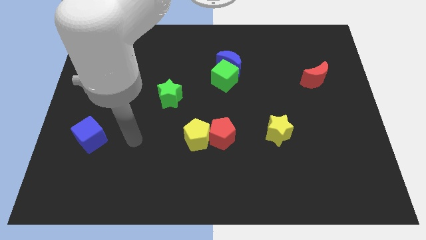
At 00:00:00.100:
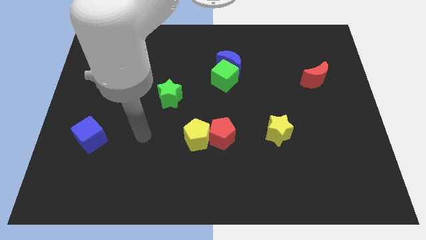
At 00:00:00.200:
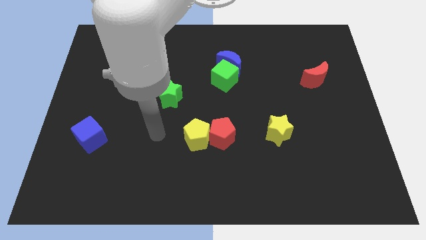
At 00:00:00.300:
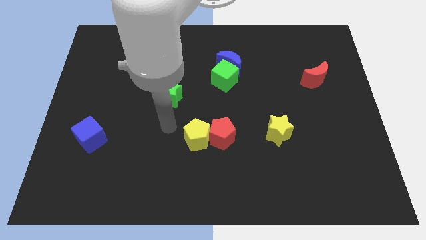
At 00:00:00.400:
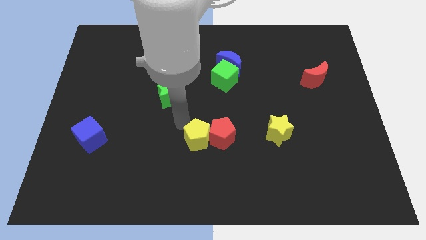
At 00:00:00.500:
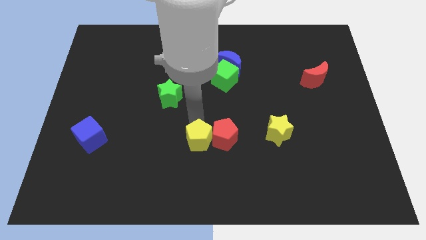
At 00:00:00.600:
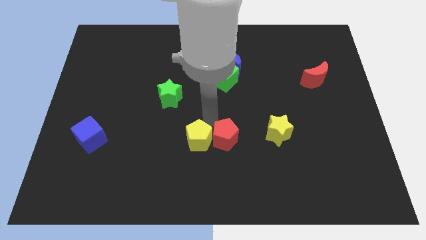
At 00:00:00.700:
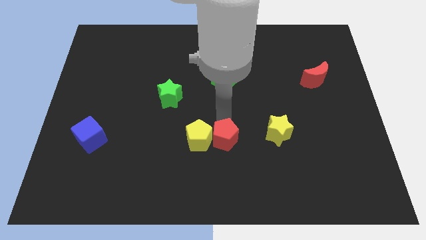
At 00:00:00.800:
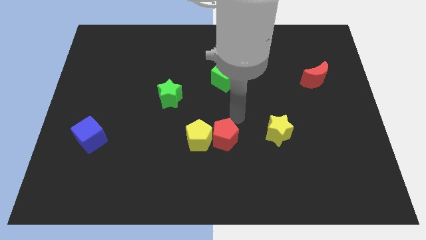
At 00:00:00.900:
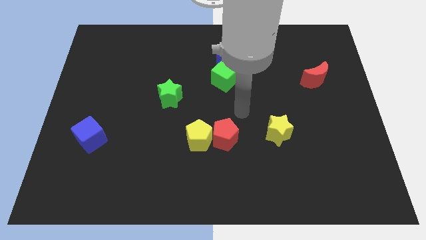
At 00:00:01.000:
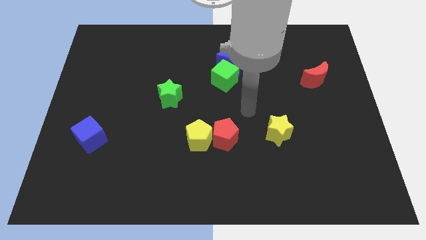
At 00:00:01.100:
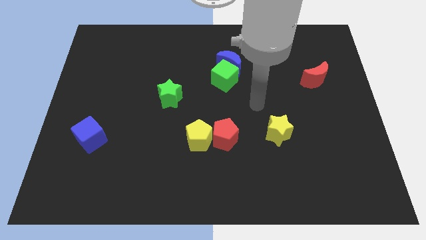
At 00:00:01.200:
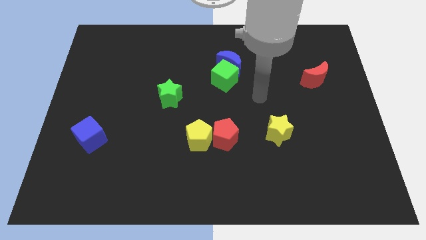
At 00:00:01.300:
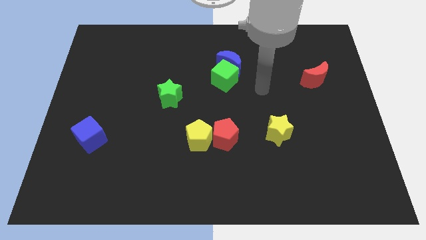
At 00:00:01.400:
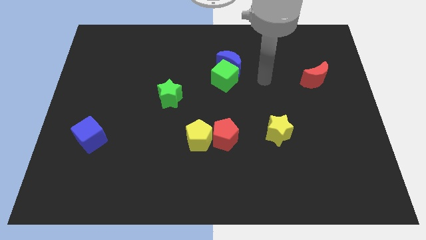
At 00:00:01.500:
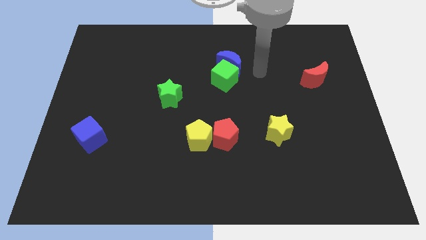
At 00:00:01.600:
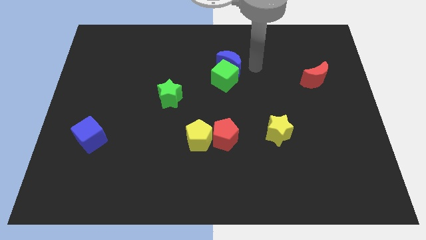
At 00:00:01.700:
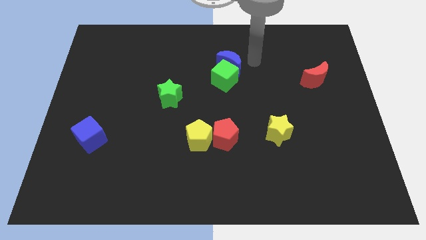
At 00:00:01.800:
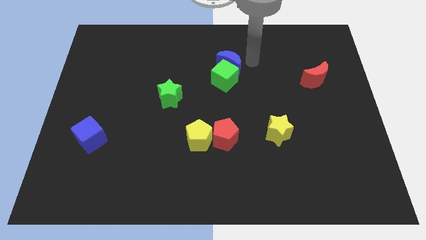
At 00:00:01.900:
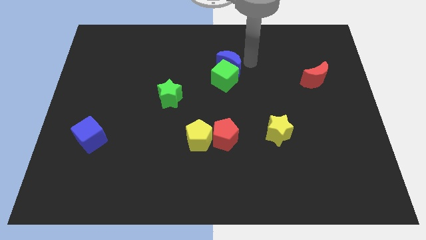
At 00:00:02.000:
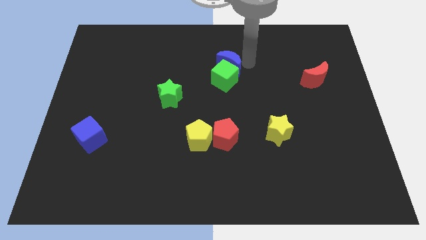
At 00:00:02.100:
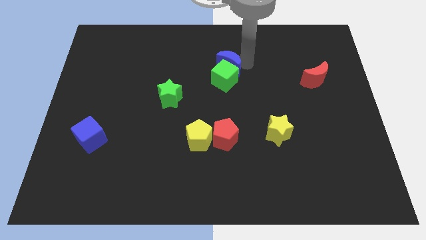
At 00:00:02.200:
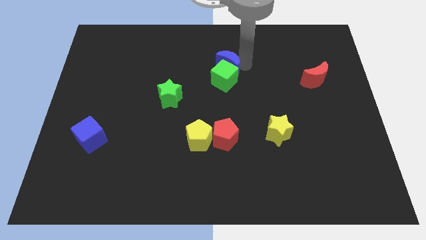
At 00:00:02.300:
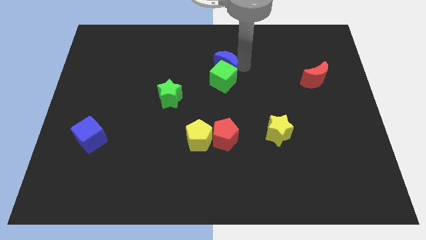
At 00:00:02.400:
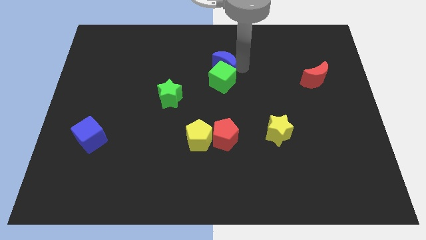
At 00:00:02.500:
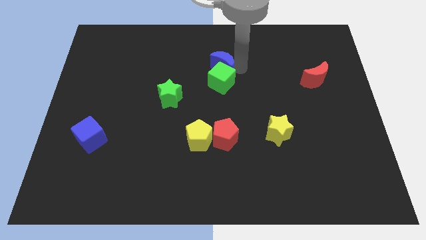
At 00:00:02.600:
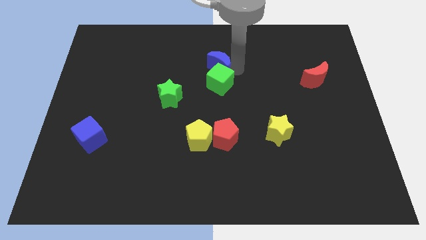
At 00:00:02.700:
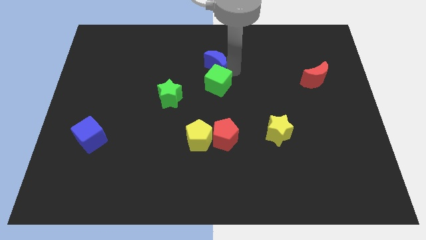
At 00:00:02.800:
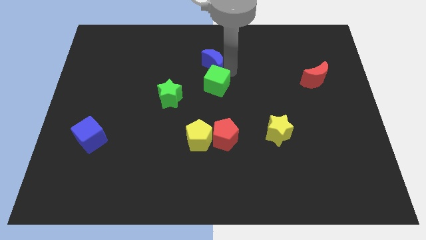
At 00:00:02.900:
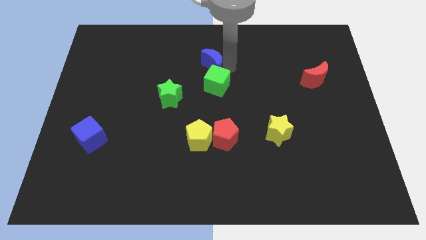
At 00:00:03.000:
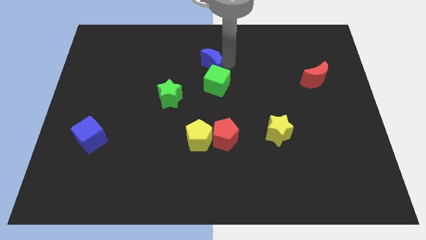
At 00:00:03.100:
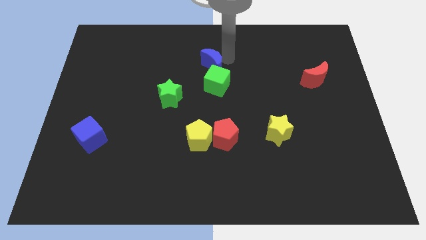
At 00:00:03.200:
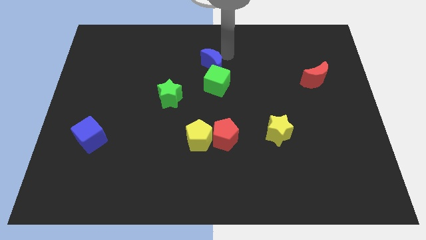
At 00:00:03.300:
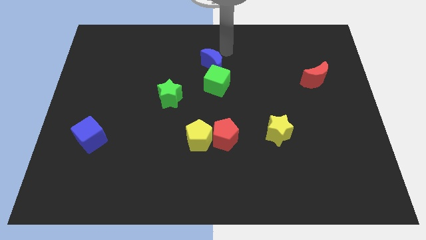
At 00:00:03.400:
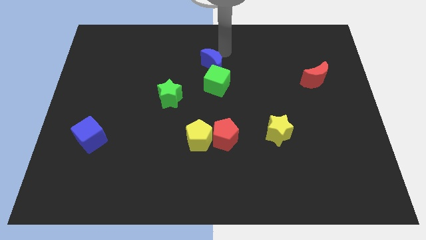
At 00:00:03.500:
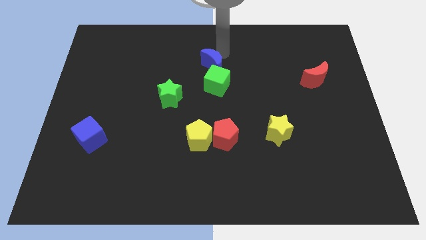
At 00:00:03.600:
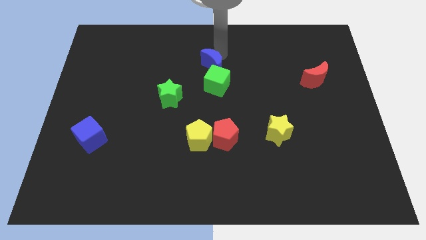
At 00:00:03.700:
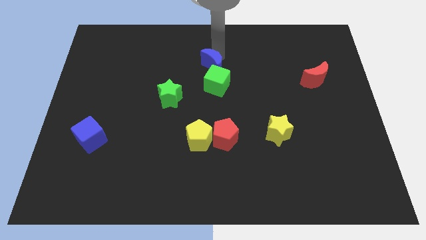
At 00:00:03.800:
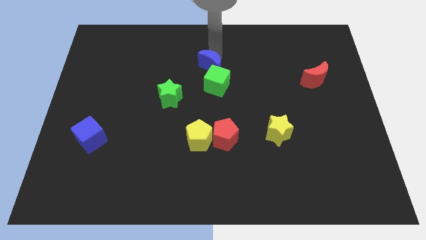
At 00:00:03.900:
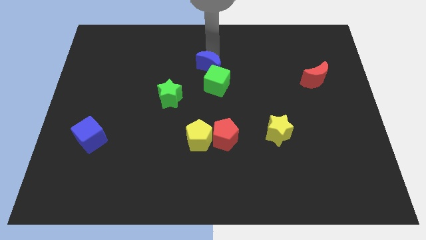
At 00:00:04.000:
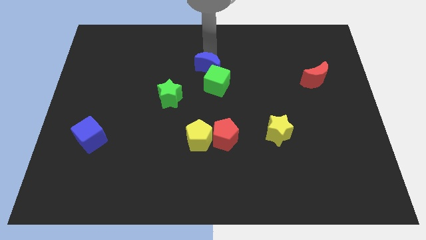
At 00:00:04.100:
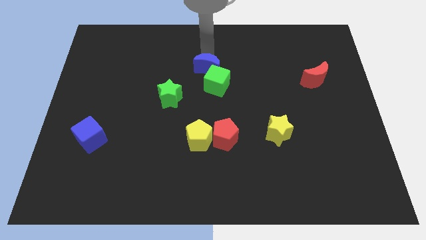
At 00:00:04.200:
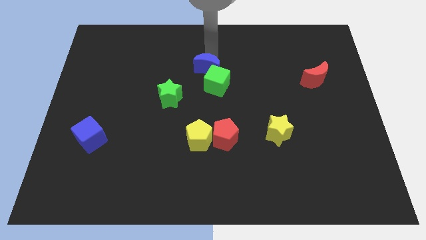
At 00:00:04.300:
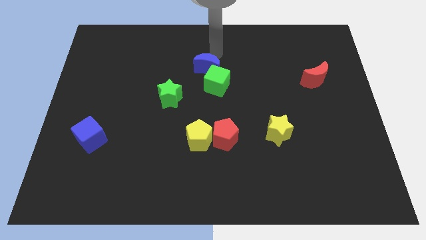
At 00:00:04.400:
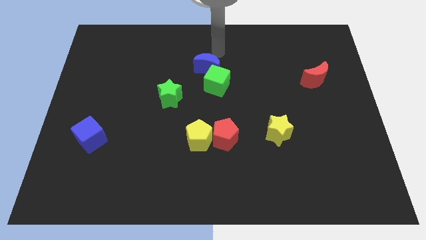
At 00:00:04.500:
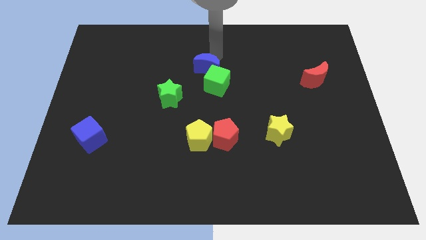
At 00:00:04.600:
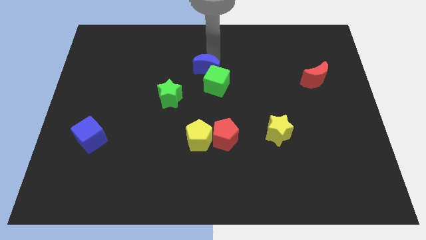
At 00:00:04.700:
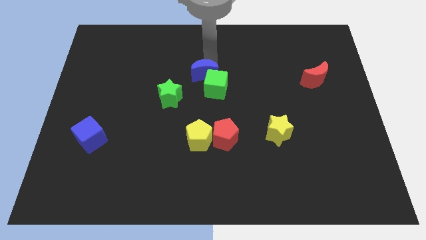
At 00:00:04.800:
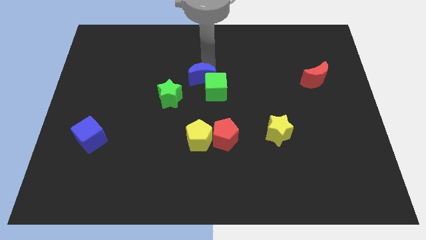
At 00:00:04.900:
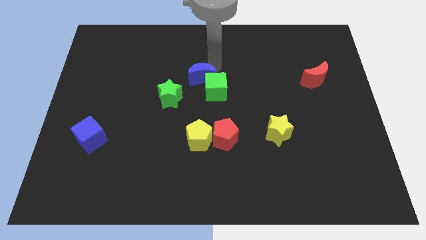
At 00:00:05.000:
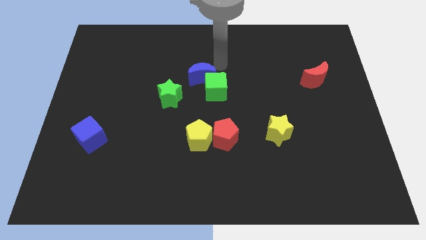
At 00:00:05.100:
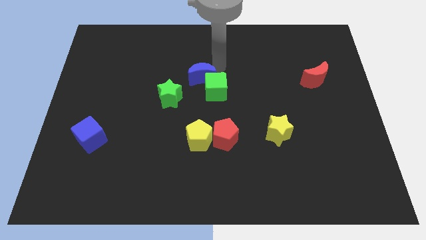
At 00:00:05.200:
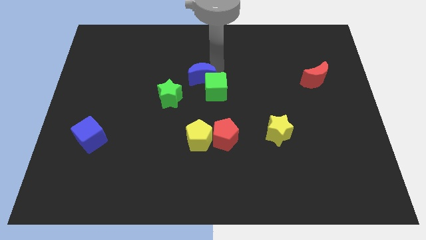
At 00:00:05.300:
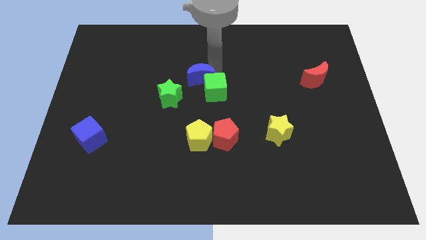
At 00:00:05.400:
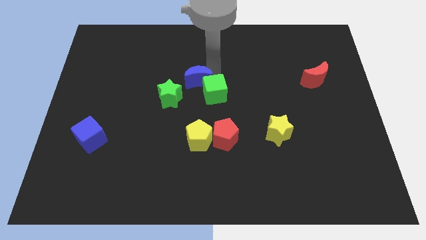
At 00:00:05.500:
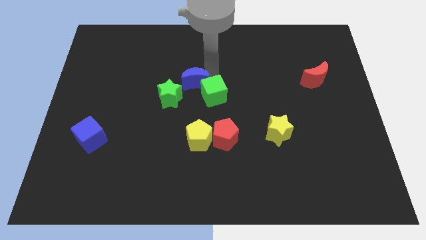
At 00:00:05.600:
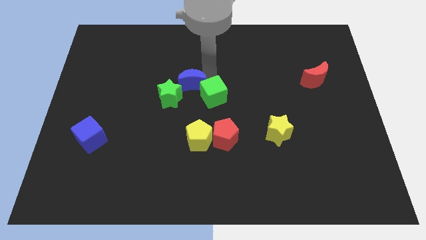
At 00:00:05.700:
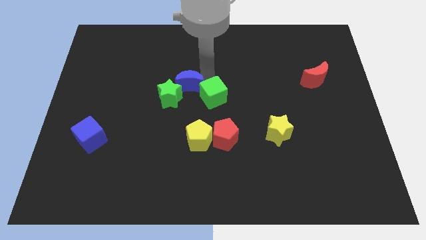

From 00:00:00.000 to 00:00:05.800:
push the blue moon next to the green star

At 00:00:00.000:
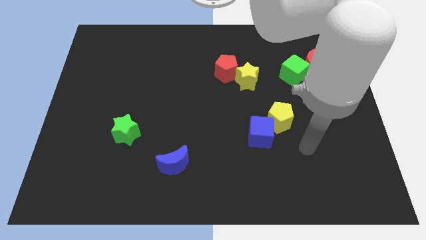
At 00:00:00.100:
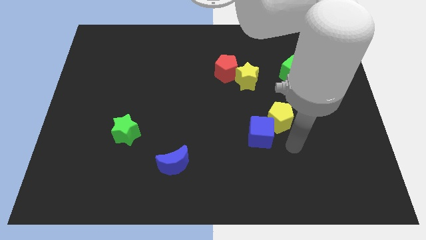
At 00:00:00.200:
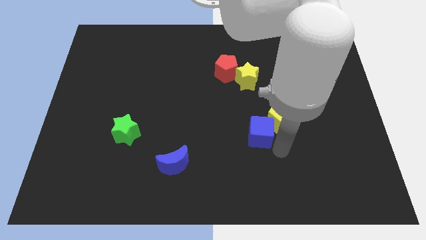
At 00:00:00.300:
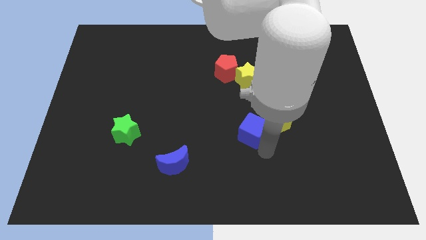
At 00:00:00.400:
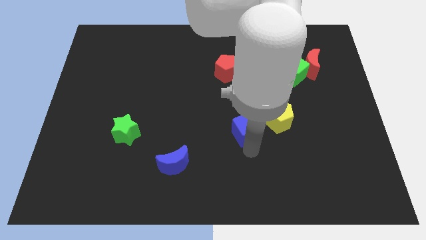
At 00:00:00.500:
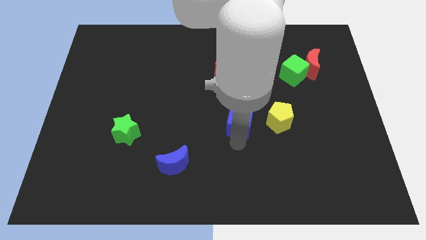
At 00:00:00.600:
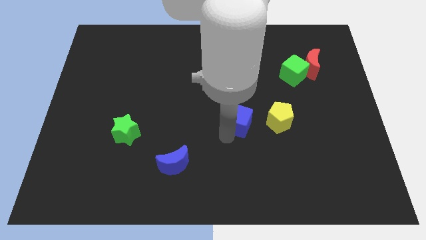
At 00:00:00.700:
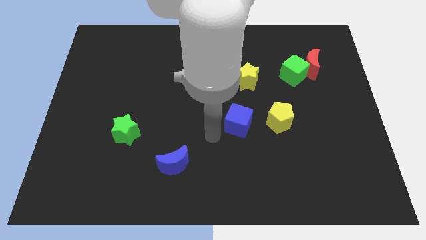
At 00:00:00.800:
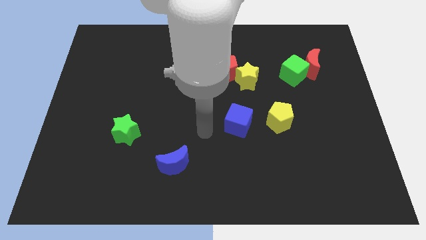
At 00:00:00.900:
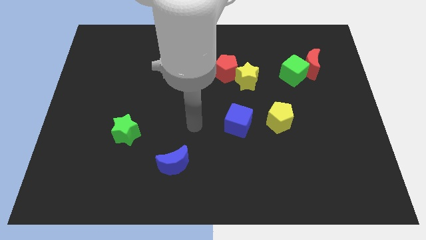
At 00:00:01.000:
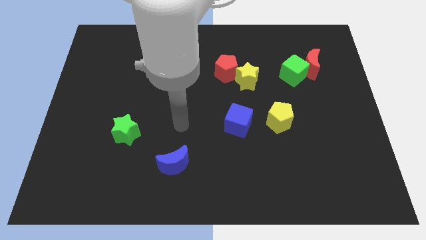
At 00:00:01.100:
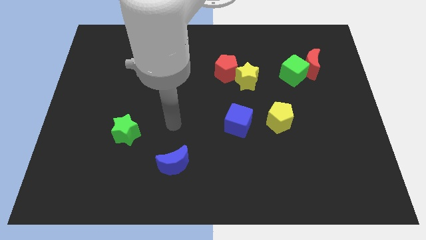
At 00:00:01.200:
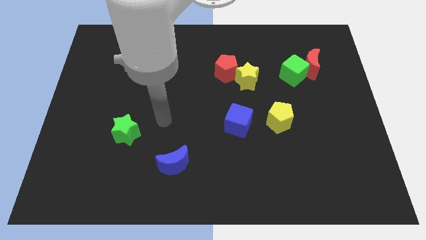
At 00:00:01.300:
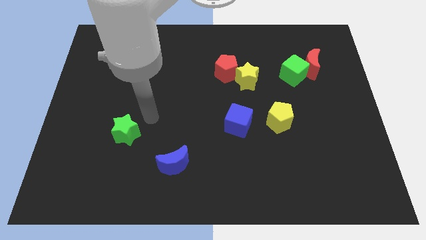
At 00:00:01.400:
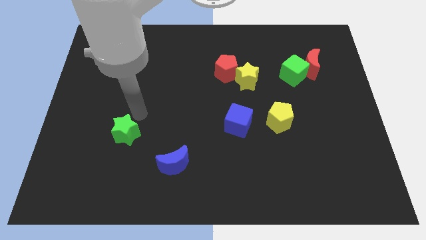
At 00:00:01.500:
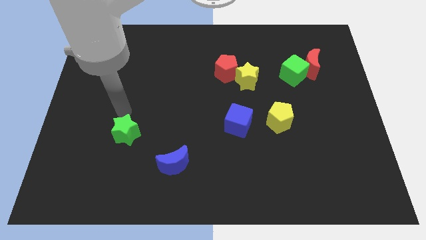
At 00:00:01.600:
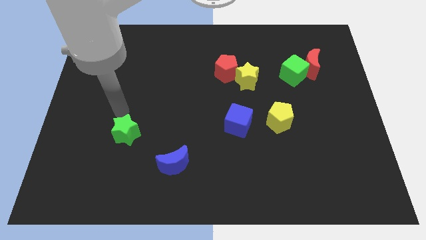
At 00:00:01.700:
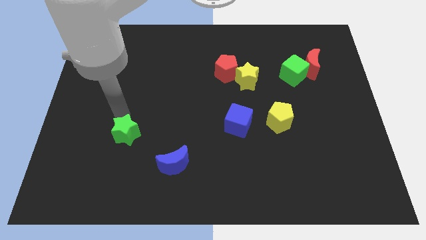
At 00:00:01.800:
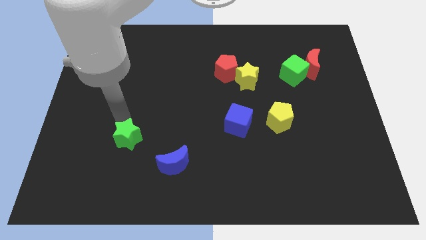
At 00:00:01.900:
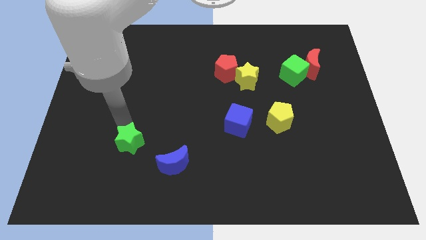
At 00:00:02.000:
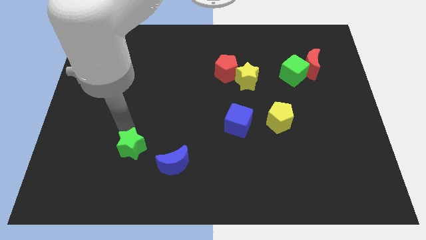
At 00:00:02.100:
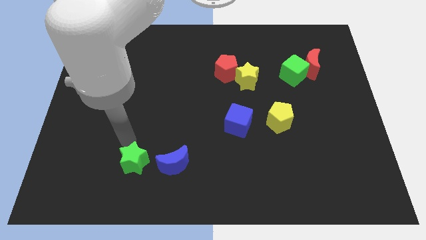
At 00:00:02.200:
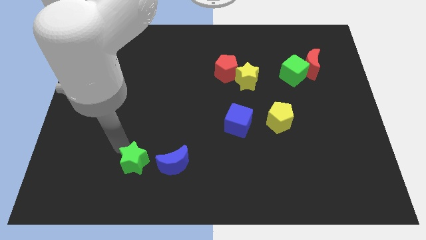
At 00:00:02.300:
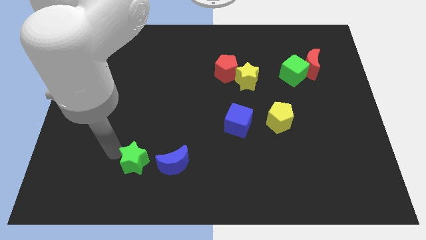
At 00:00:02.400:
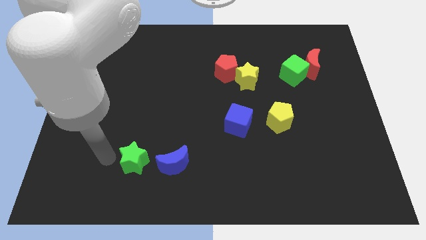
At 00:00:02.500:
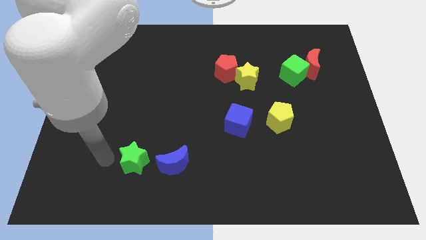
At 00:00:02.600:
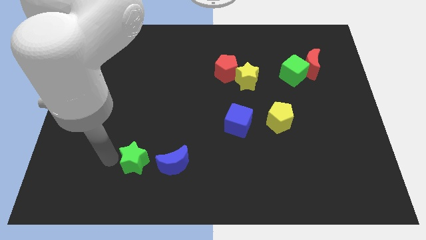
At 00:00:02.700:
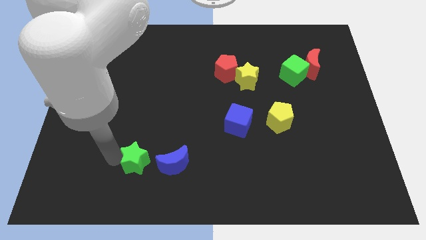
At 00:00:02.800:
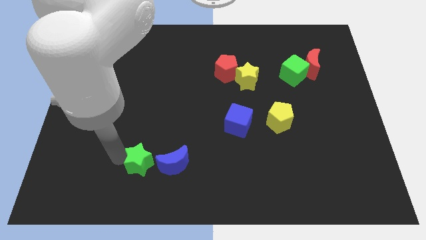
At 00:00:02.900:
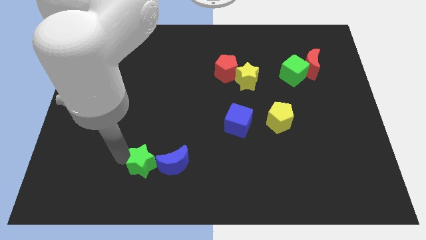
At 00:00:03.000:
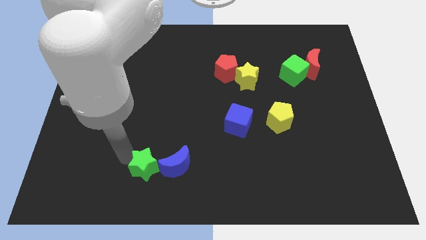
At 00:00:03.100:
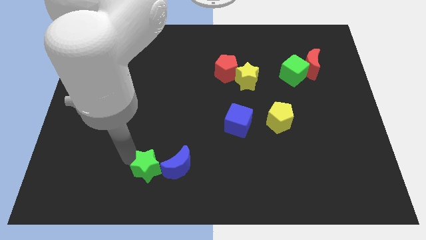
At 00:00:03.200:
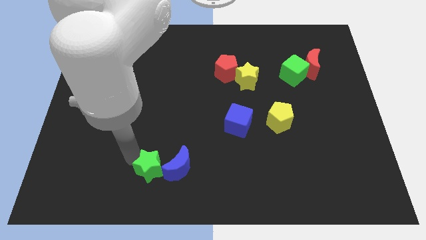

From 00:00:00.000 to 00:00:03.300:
move the green star towards the blue moon
